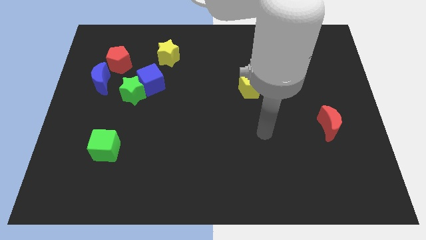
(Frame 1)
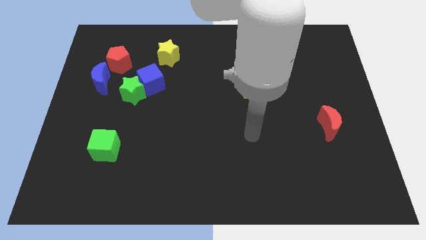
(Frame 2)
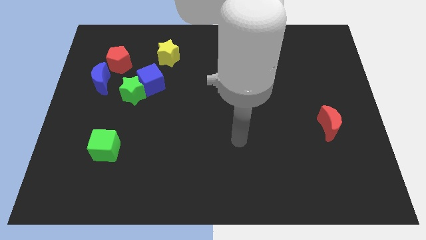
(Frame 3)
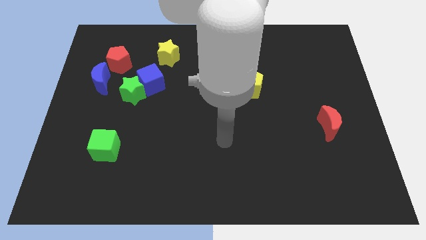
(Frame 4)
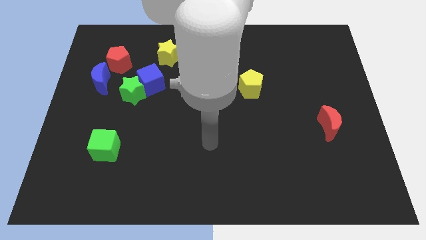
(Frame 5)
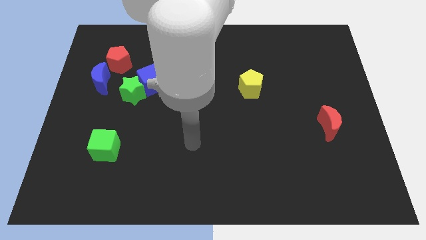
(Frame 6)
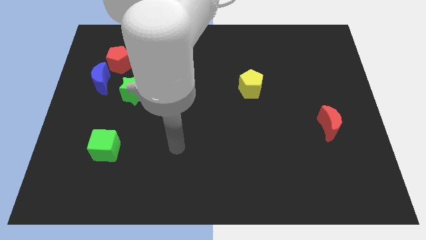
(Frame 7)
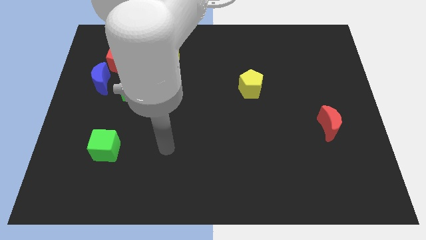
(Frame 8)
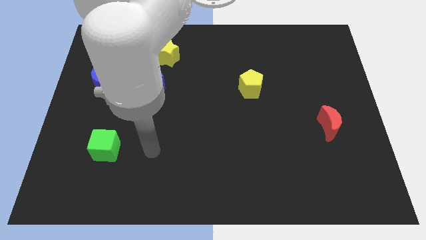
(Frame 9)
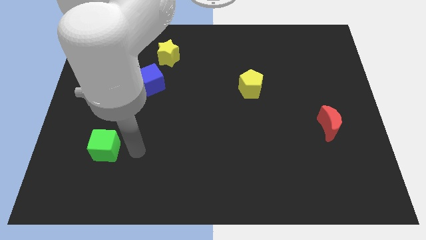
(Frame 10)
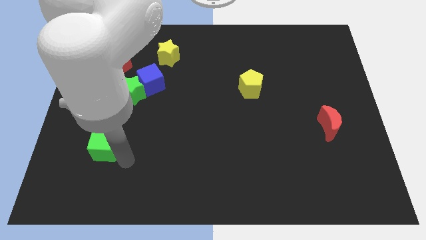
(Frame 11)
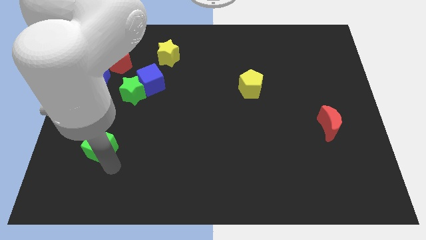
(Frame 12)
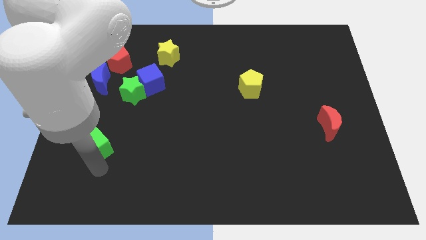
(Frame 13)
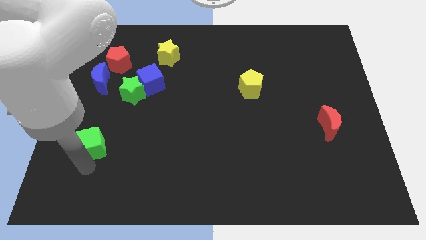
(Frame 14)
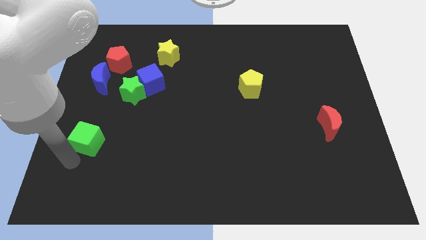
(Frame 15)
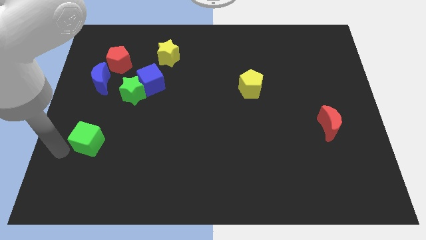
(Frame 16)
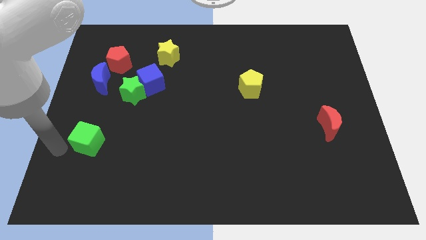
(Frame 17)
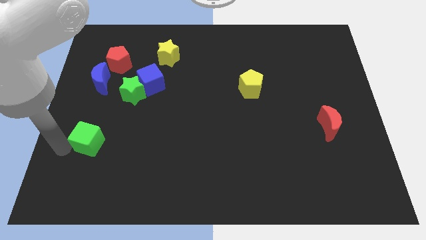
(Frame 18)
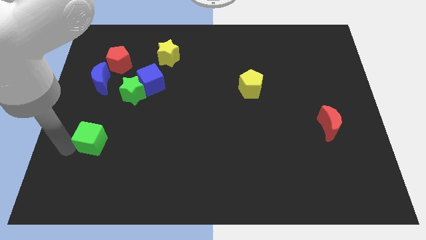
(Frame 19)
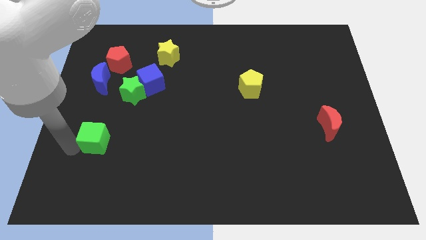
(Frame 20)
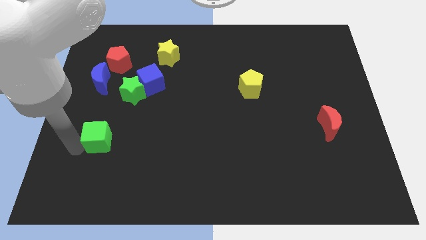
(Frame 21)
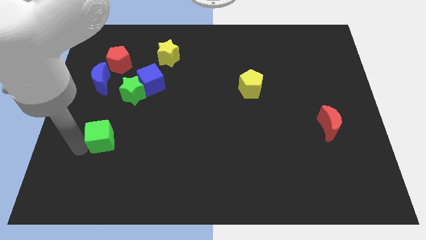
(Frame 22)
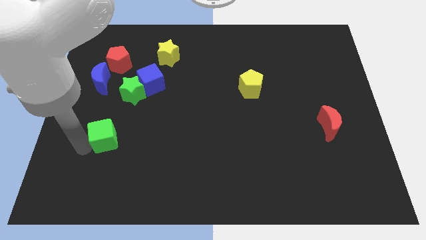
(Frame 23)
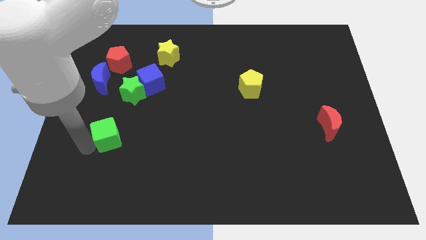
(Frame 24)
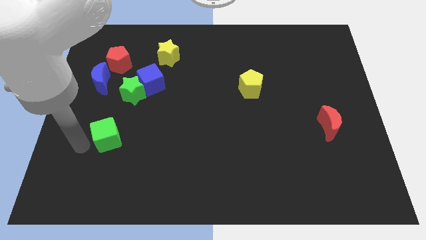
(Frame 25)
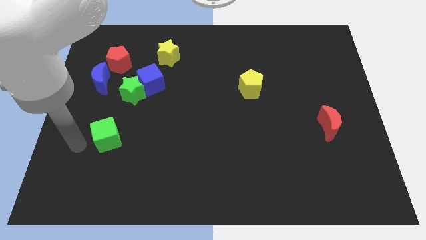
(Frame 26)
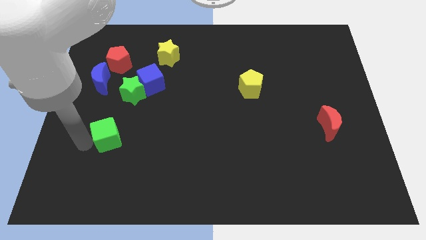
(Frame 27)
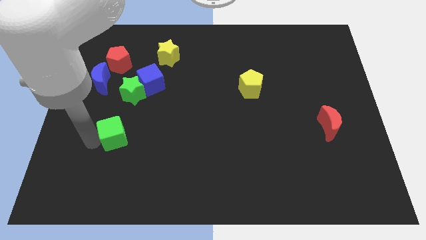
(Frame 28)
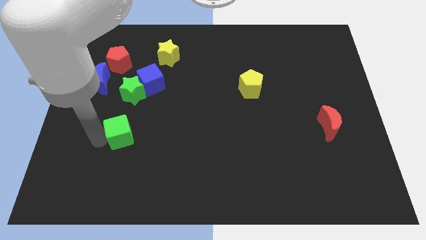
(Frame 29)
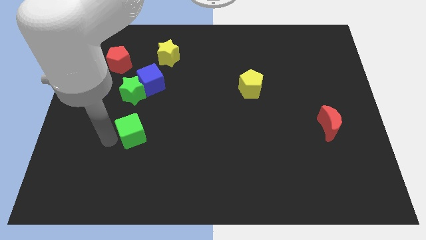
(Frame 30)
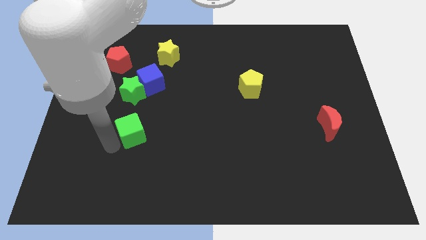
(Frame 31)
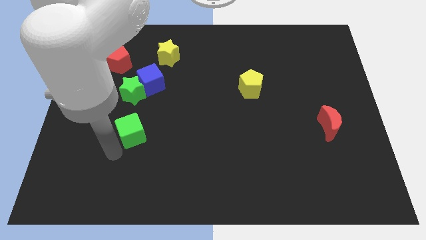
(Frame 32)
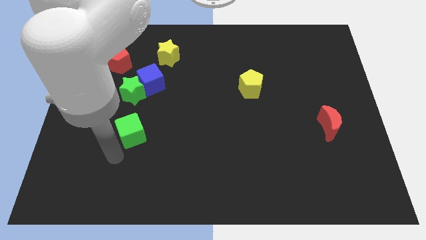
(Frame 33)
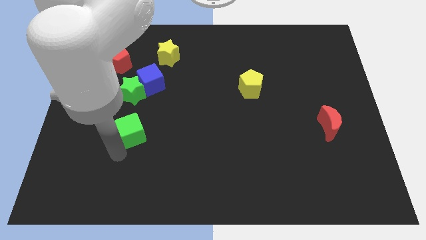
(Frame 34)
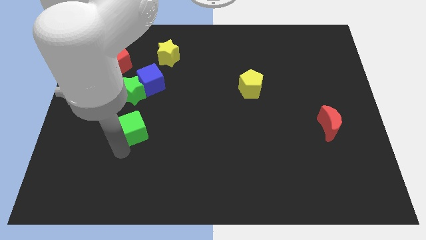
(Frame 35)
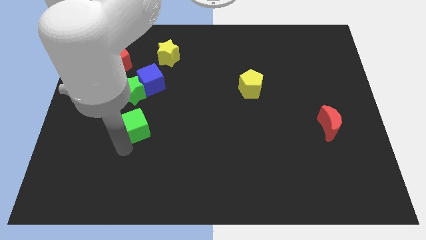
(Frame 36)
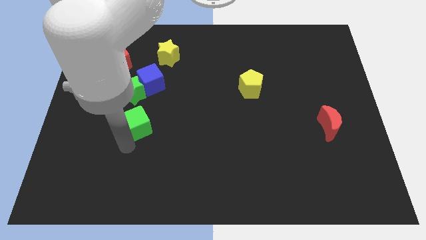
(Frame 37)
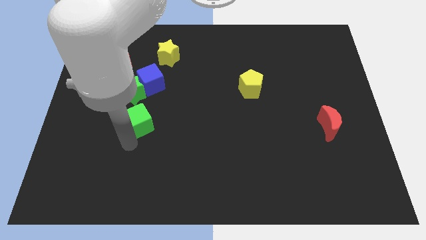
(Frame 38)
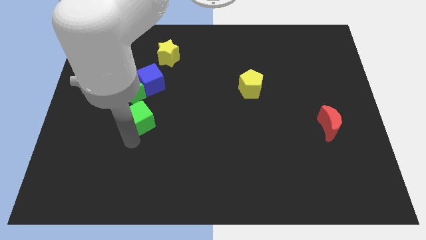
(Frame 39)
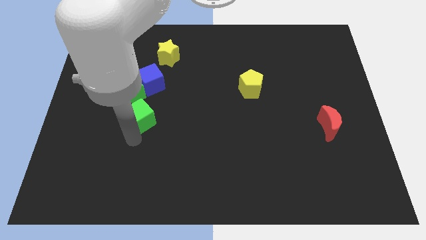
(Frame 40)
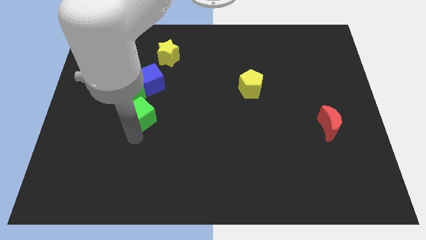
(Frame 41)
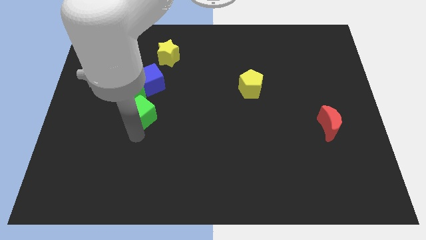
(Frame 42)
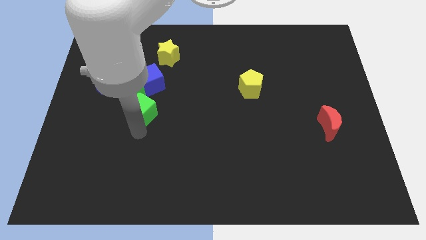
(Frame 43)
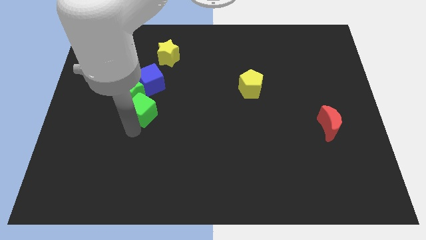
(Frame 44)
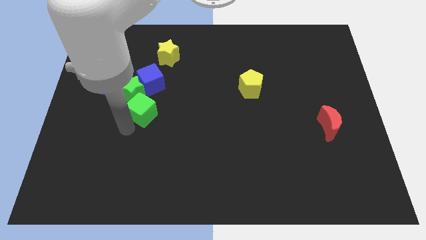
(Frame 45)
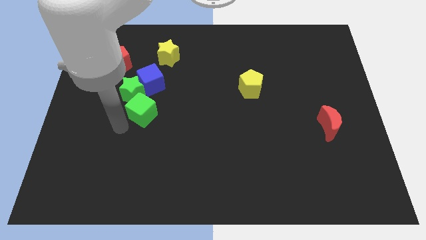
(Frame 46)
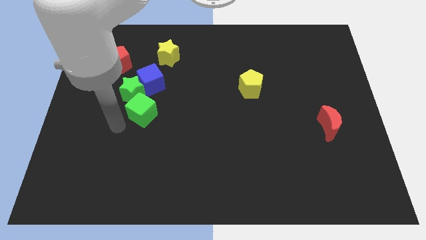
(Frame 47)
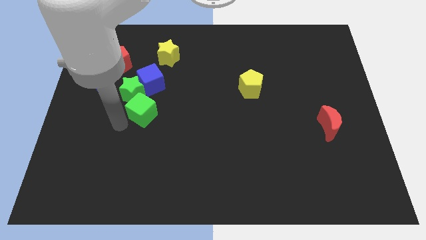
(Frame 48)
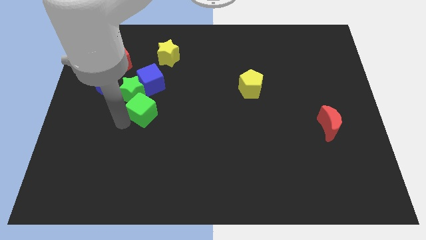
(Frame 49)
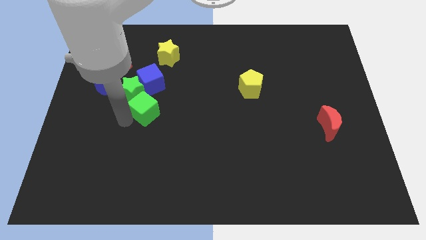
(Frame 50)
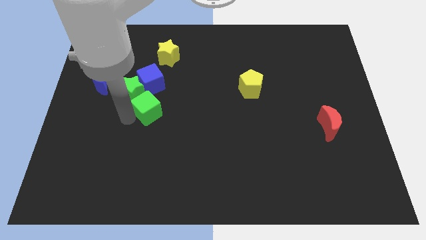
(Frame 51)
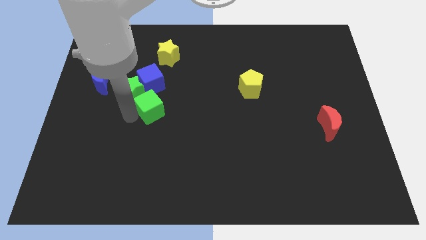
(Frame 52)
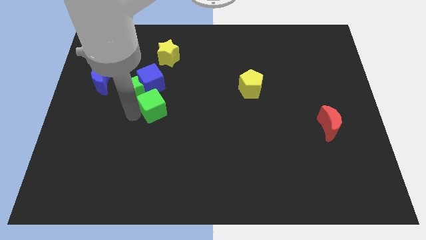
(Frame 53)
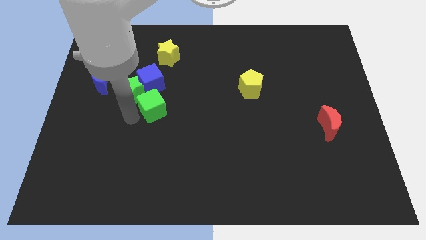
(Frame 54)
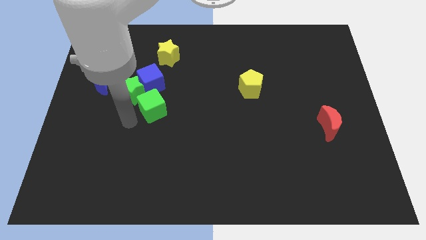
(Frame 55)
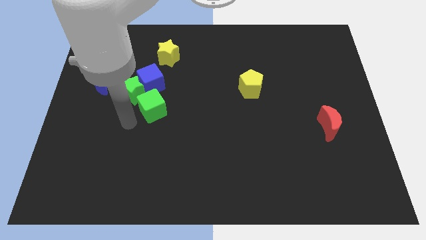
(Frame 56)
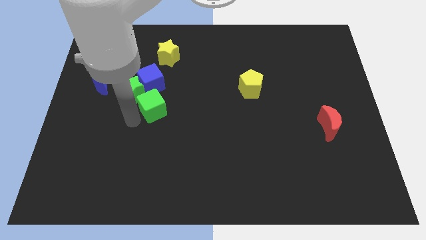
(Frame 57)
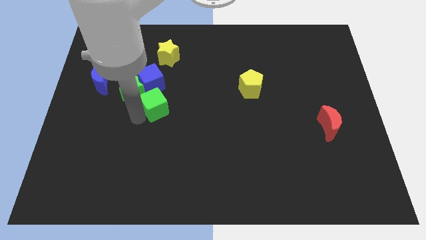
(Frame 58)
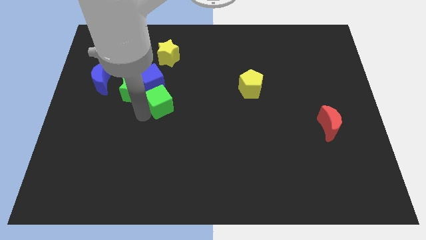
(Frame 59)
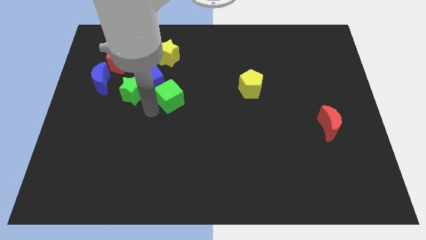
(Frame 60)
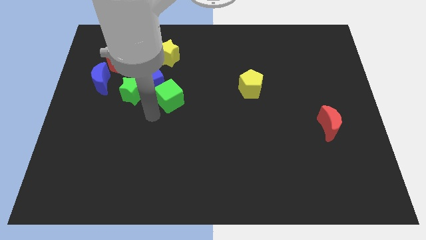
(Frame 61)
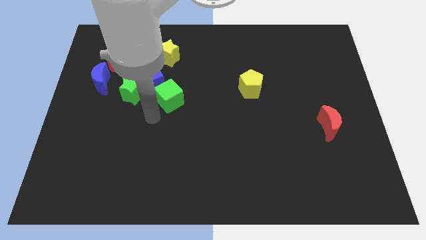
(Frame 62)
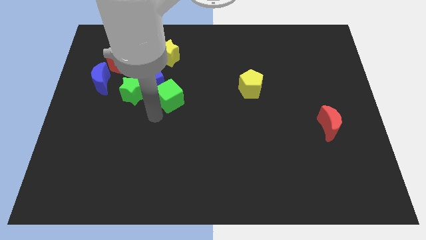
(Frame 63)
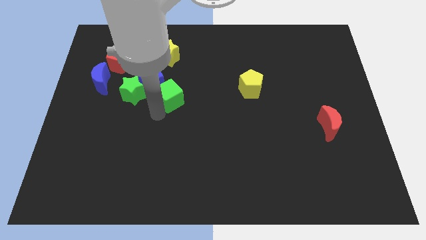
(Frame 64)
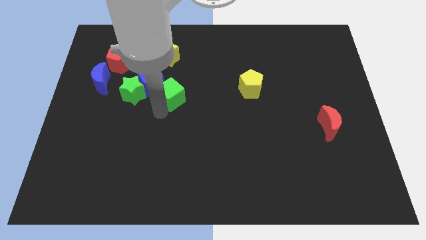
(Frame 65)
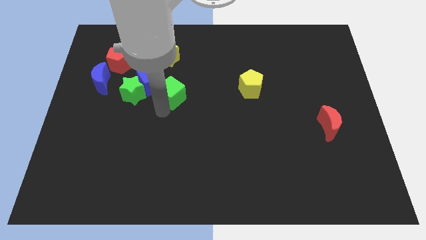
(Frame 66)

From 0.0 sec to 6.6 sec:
push the green cube up and to the right

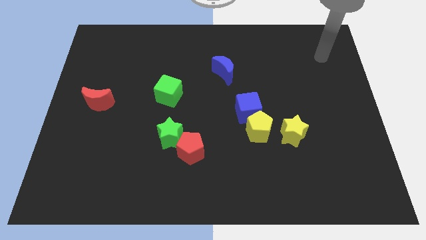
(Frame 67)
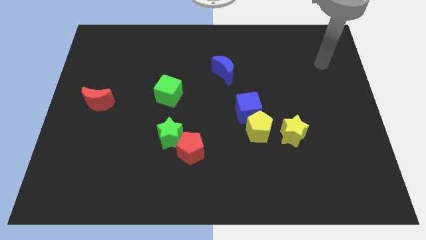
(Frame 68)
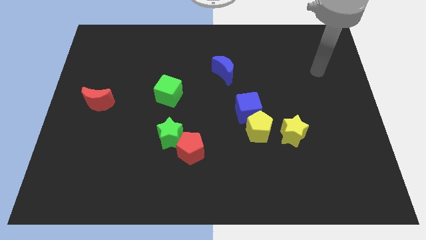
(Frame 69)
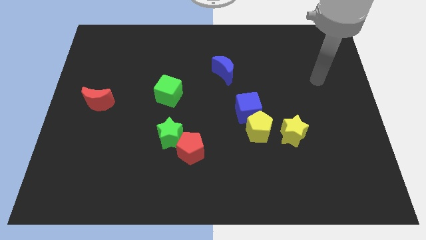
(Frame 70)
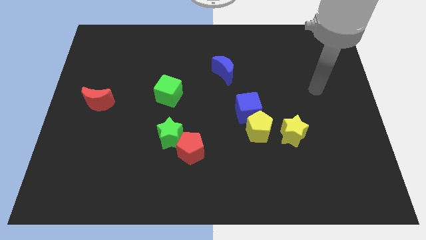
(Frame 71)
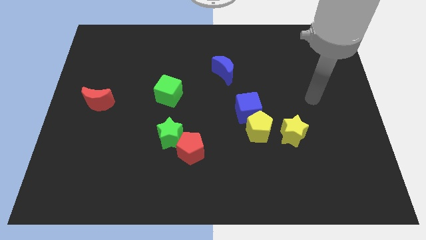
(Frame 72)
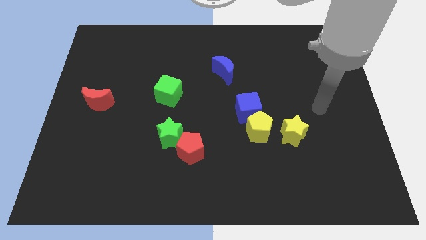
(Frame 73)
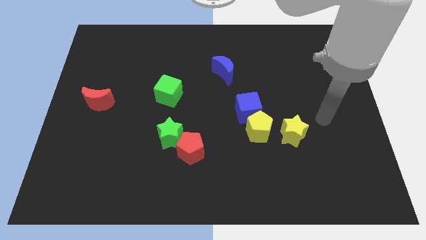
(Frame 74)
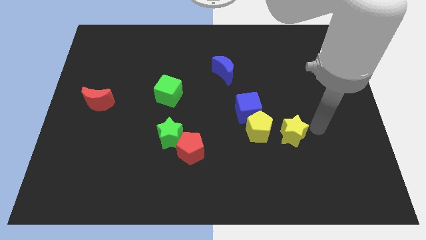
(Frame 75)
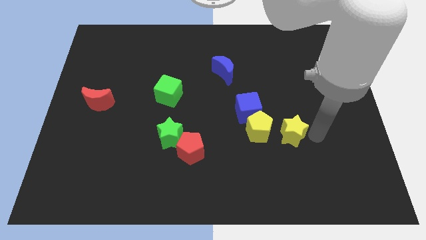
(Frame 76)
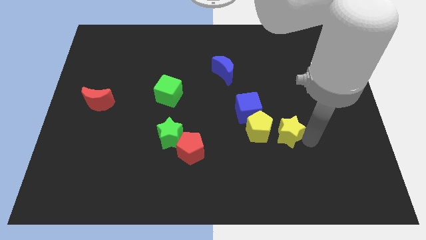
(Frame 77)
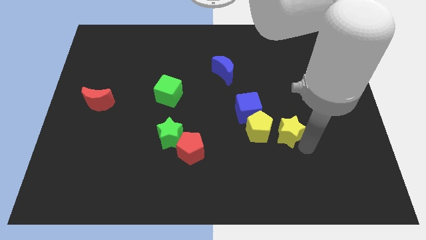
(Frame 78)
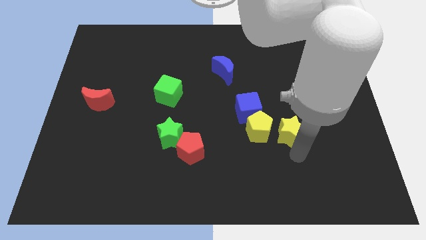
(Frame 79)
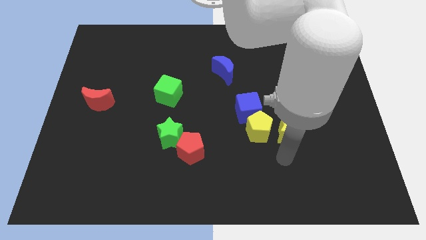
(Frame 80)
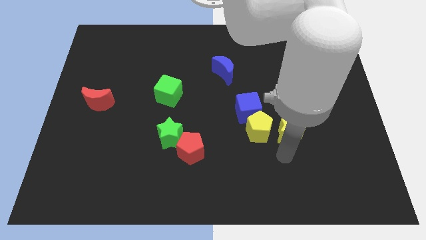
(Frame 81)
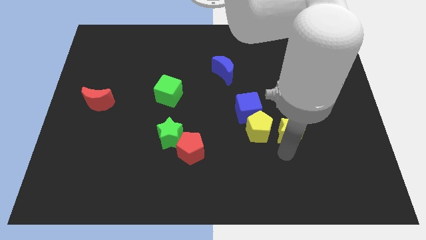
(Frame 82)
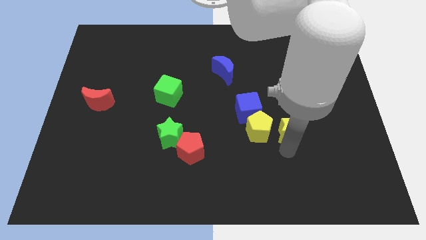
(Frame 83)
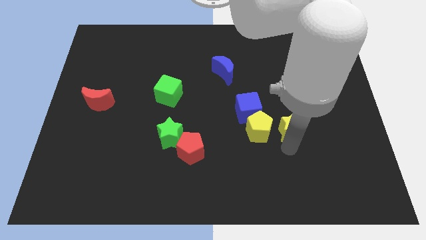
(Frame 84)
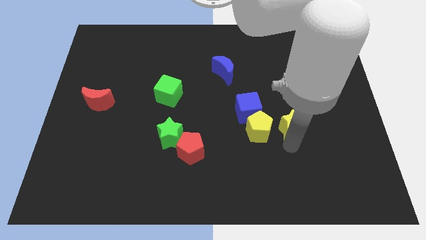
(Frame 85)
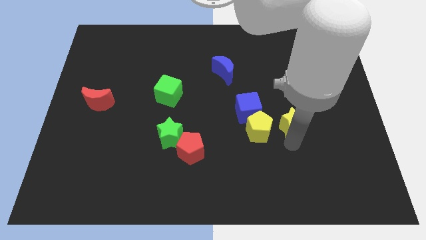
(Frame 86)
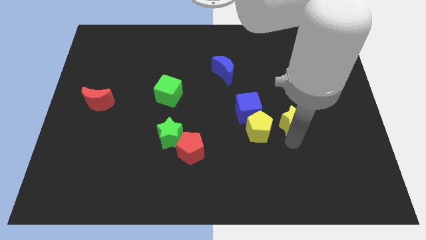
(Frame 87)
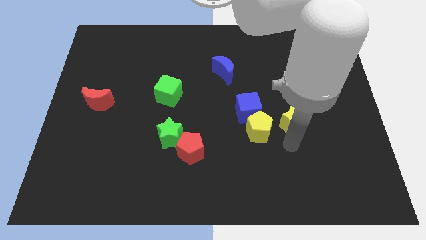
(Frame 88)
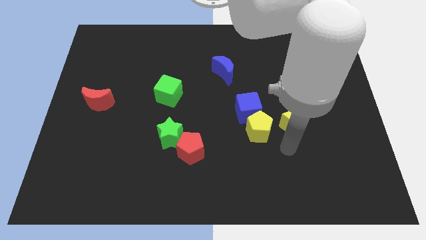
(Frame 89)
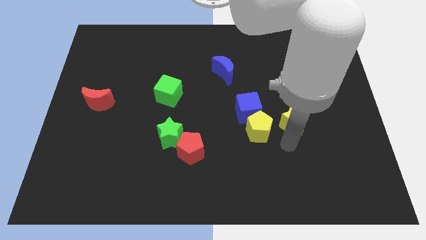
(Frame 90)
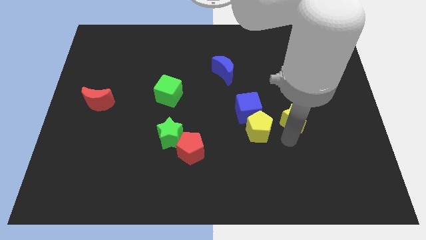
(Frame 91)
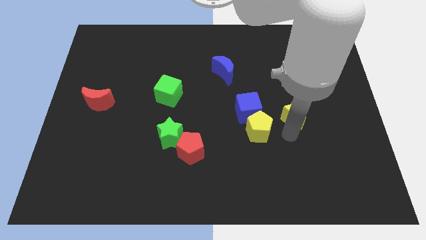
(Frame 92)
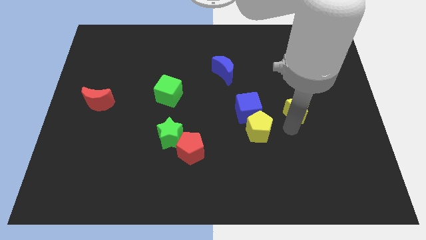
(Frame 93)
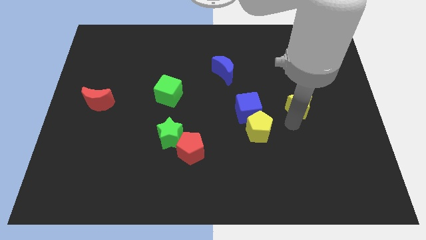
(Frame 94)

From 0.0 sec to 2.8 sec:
slightly push the yellow star upwards
